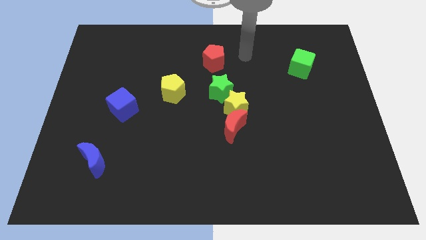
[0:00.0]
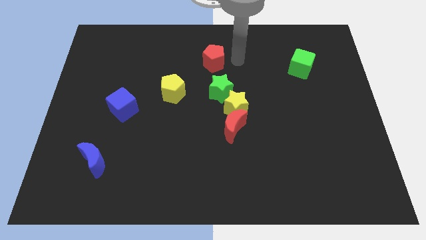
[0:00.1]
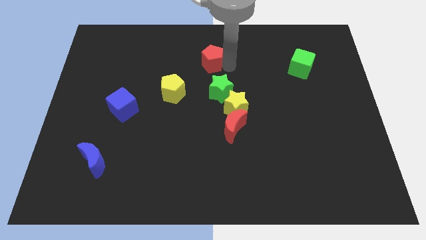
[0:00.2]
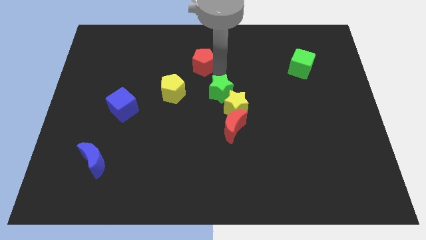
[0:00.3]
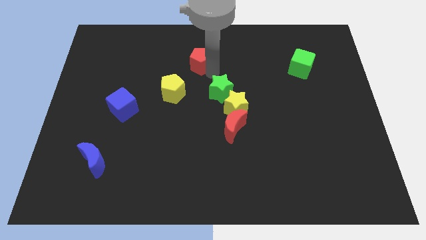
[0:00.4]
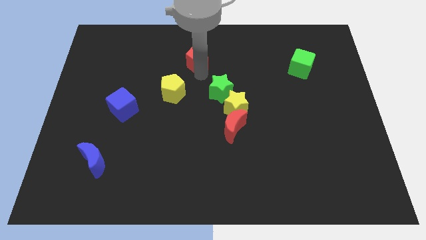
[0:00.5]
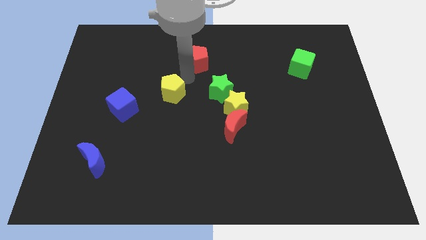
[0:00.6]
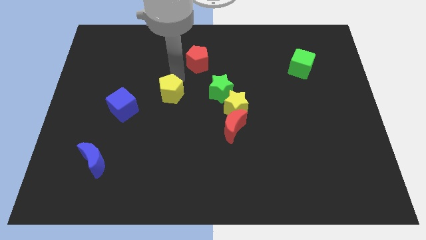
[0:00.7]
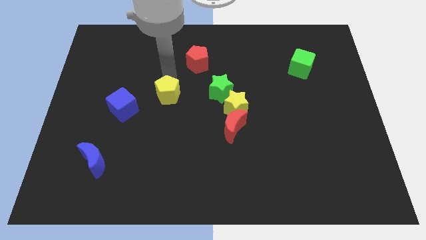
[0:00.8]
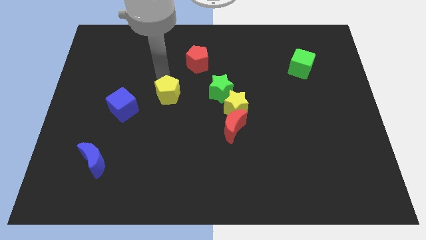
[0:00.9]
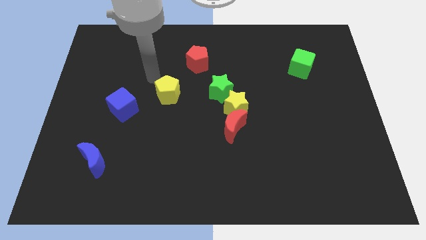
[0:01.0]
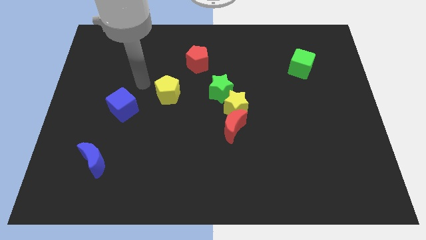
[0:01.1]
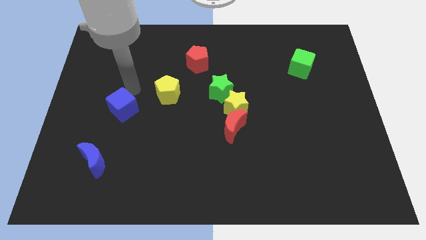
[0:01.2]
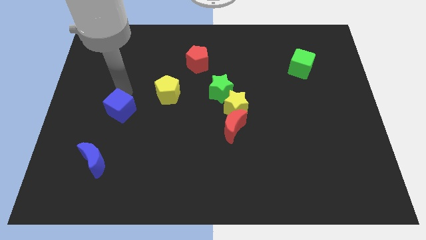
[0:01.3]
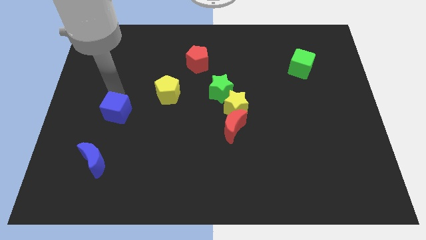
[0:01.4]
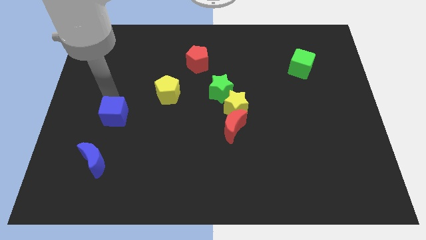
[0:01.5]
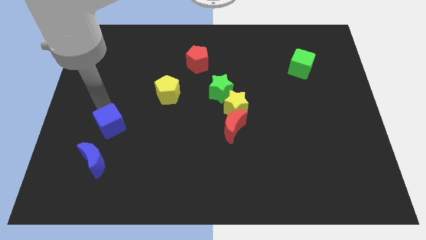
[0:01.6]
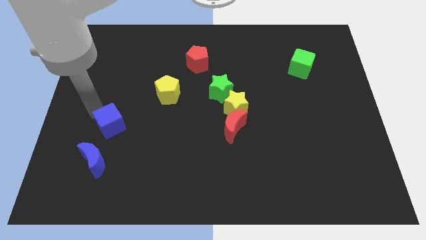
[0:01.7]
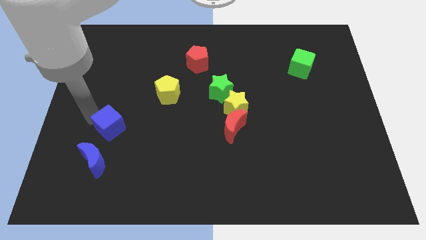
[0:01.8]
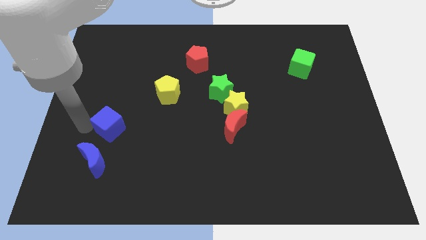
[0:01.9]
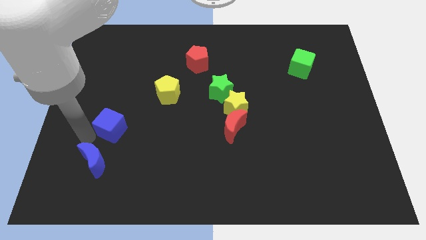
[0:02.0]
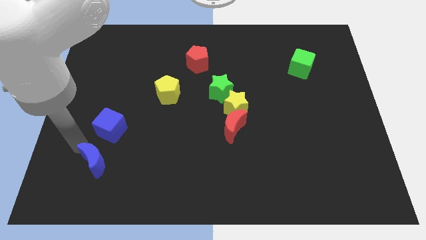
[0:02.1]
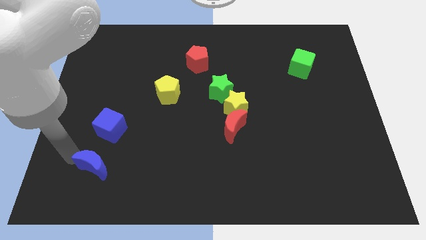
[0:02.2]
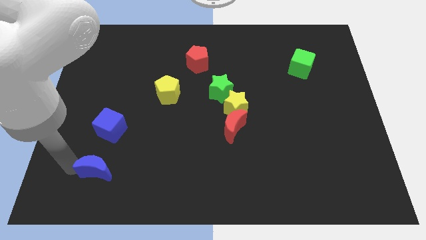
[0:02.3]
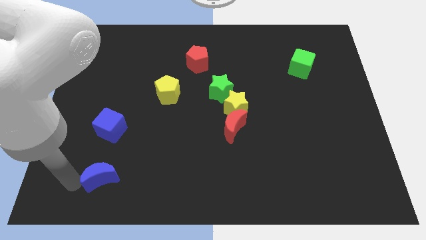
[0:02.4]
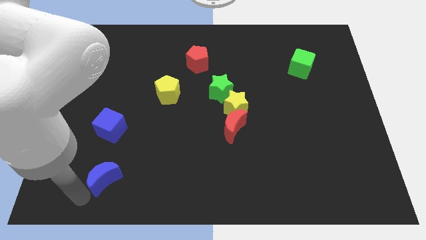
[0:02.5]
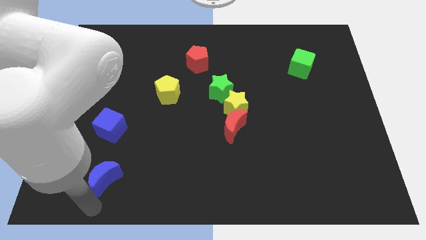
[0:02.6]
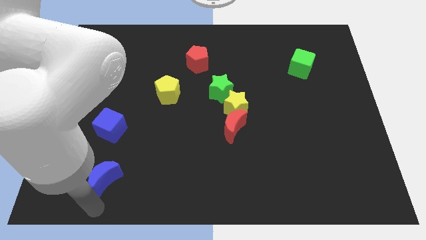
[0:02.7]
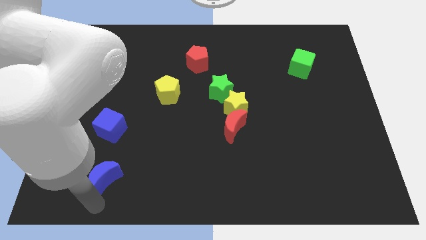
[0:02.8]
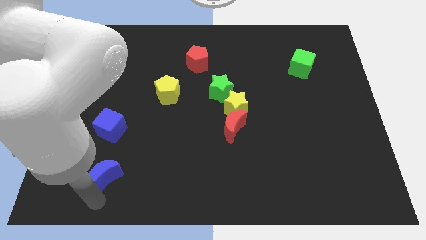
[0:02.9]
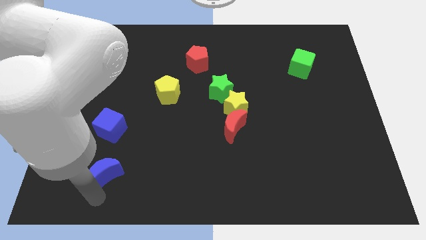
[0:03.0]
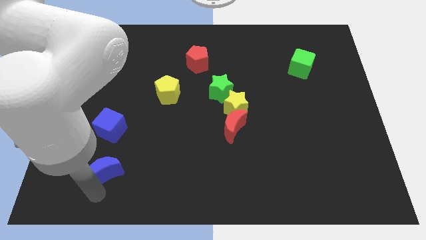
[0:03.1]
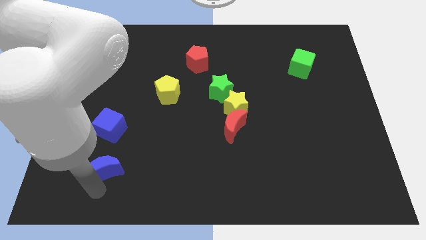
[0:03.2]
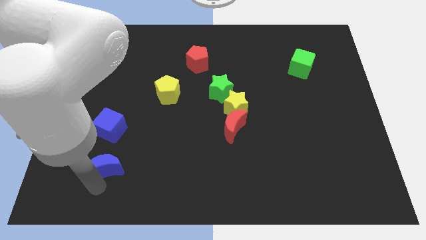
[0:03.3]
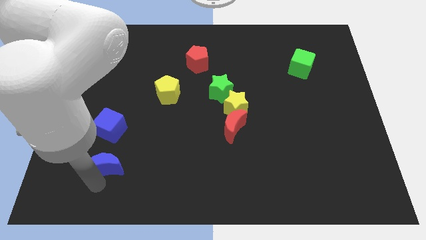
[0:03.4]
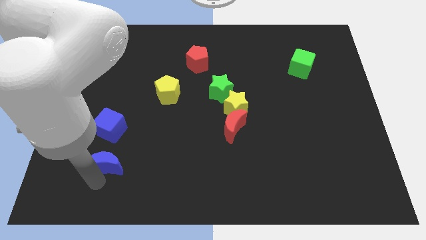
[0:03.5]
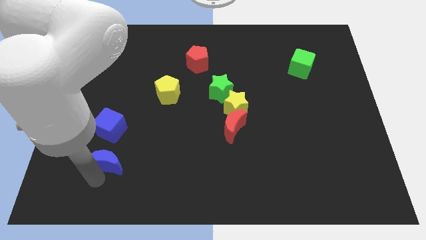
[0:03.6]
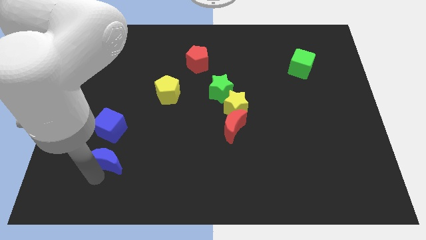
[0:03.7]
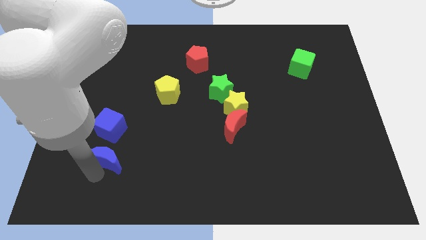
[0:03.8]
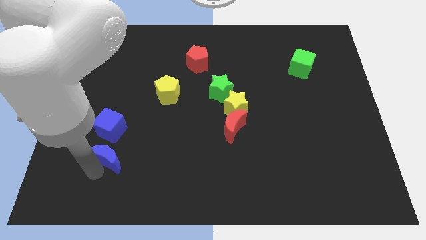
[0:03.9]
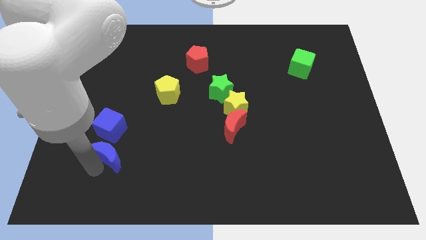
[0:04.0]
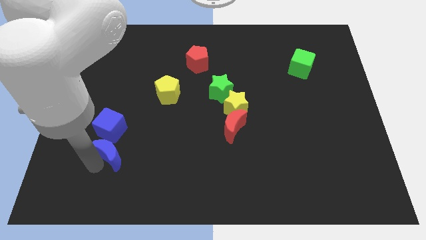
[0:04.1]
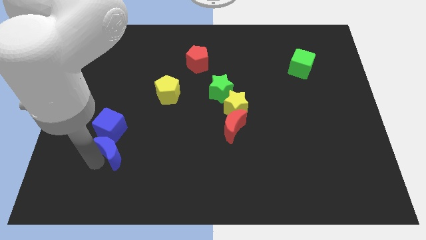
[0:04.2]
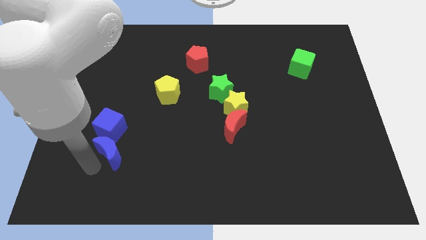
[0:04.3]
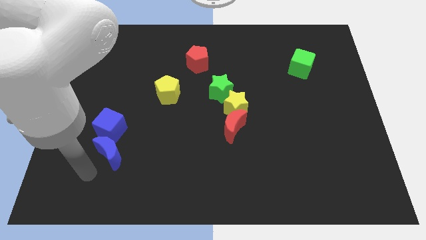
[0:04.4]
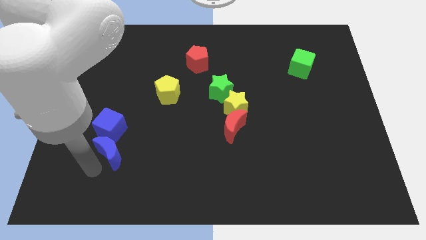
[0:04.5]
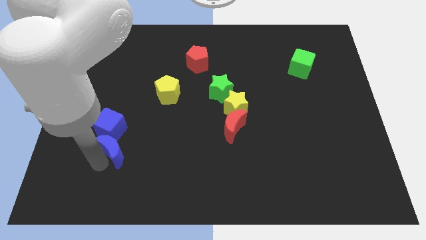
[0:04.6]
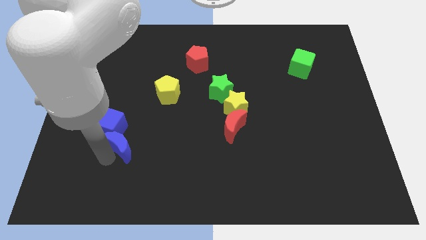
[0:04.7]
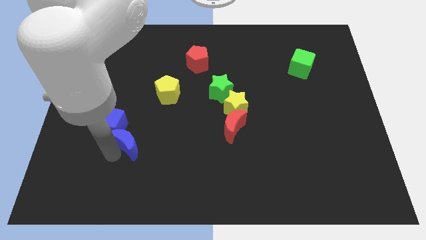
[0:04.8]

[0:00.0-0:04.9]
move the blue moon up and to the right diagonally a little

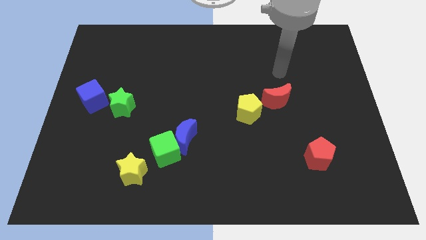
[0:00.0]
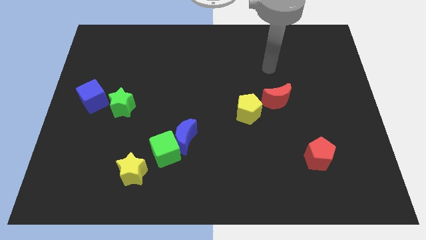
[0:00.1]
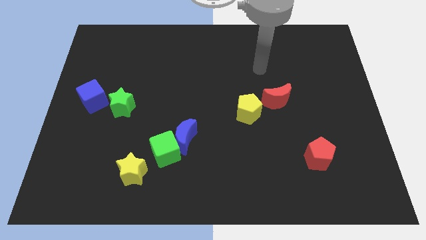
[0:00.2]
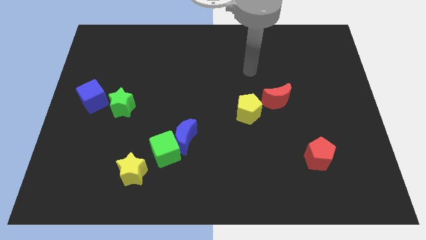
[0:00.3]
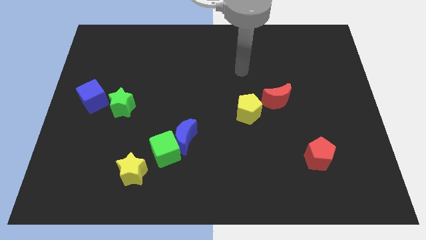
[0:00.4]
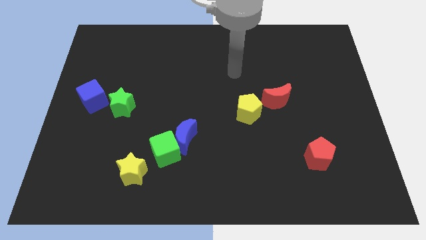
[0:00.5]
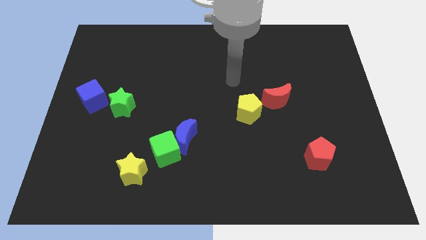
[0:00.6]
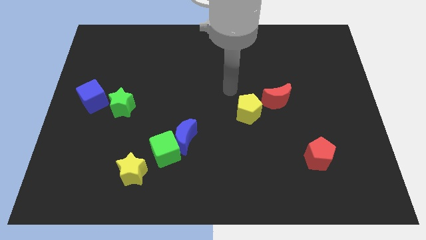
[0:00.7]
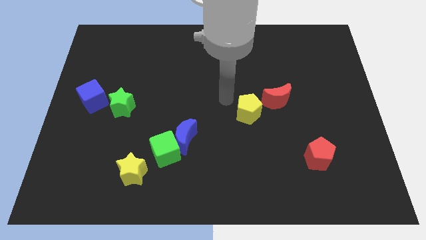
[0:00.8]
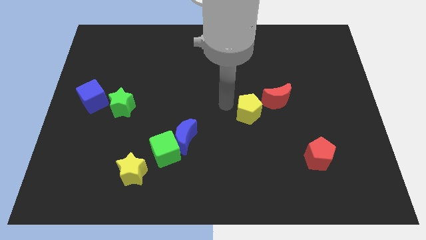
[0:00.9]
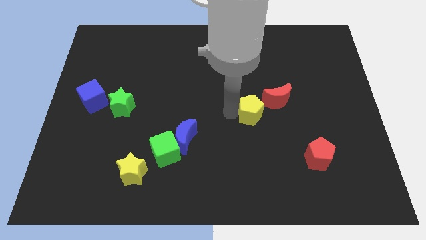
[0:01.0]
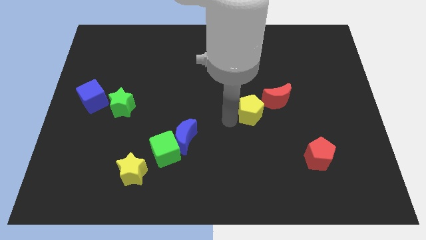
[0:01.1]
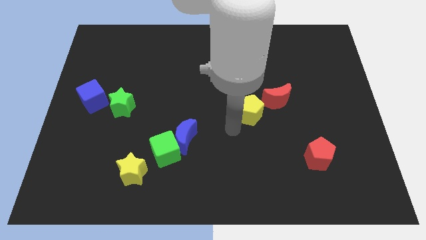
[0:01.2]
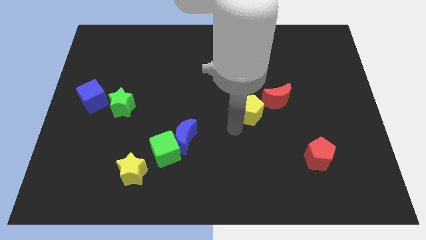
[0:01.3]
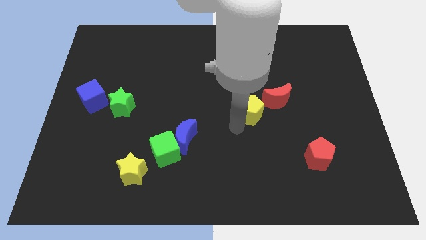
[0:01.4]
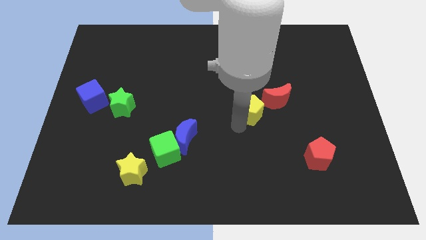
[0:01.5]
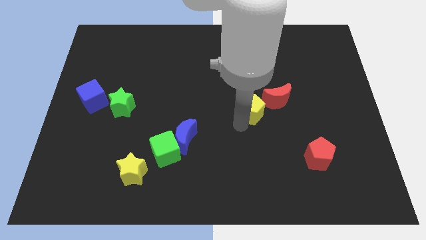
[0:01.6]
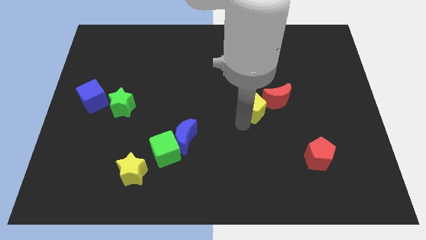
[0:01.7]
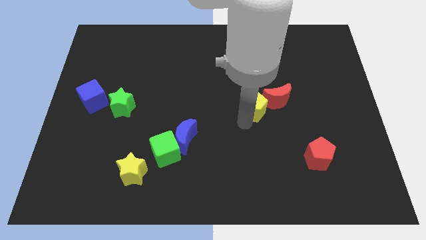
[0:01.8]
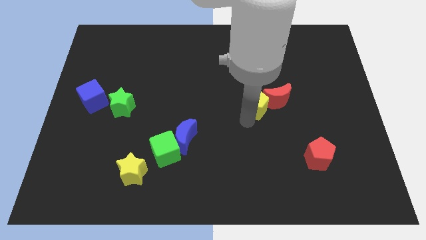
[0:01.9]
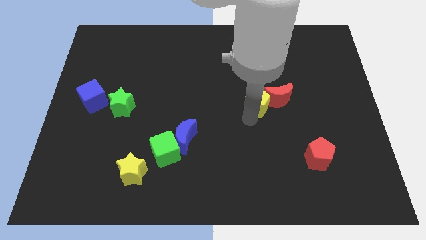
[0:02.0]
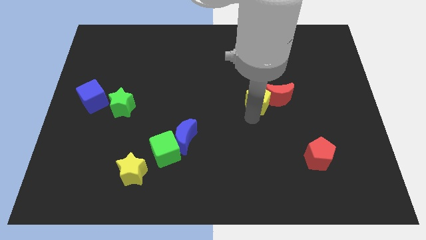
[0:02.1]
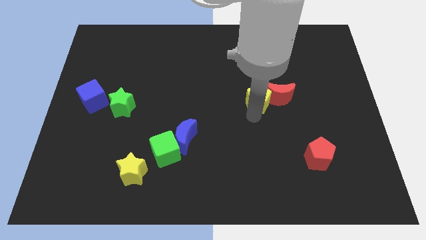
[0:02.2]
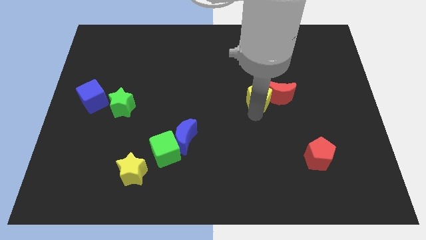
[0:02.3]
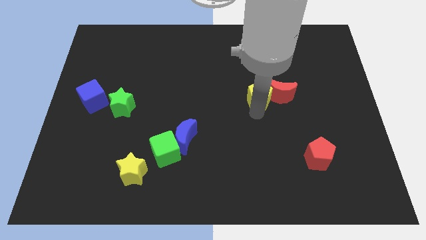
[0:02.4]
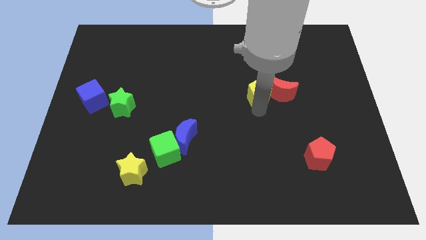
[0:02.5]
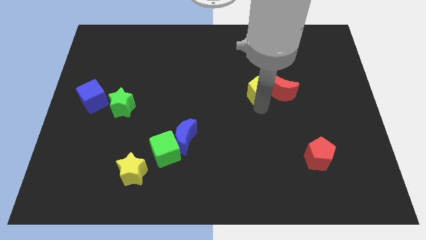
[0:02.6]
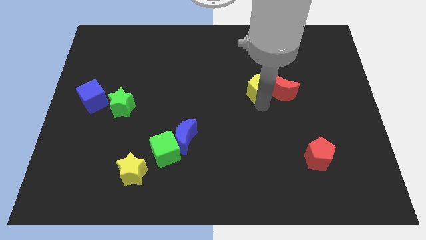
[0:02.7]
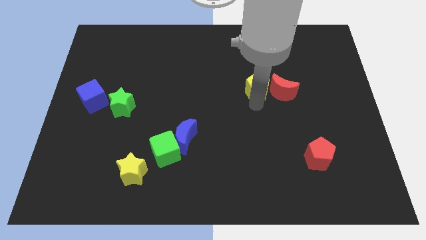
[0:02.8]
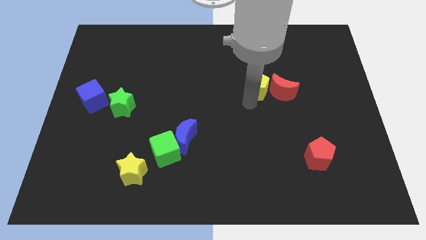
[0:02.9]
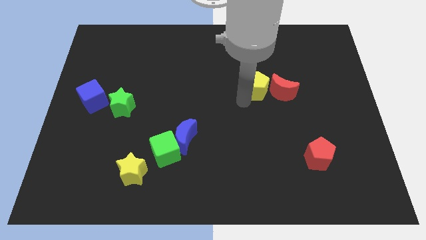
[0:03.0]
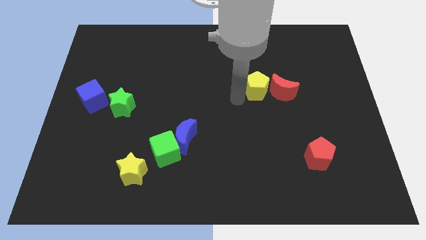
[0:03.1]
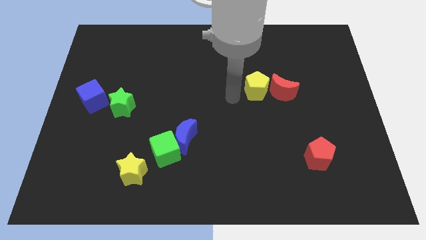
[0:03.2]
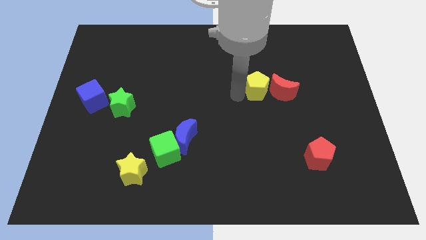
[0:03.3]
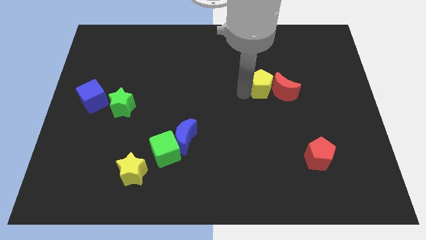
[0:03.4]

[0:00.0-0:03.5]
move the yellow pentagon up and then to the right a little bit
